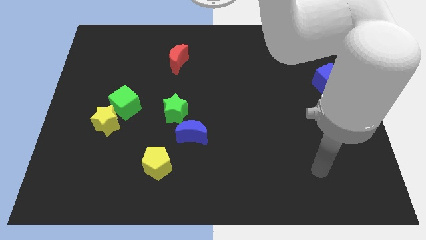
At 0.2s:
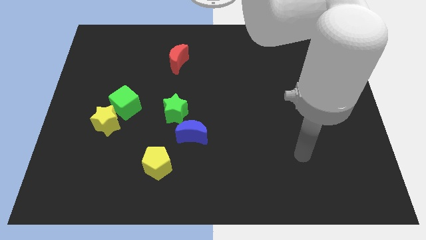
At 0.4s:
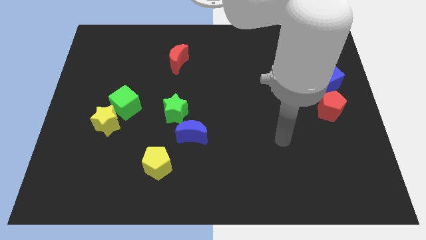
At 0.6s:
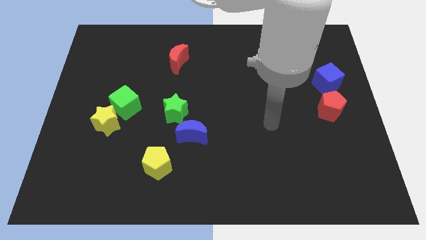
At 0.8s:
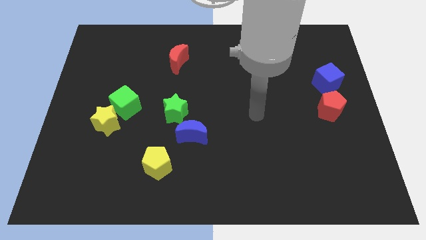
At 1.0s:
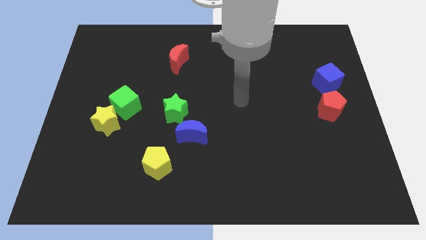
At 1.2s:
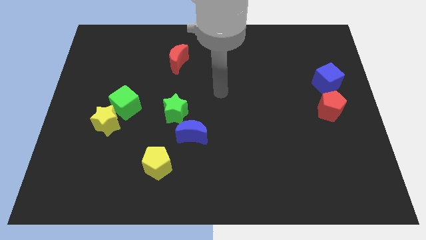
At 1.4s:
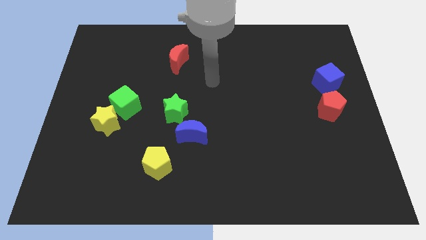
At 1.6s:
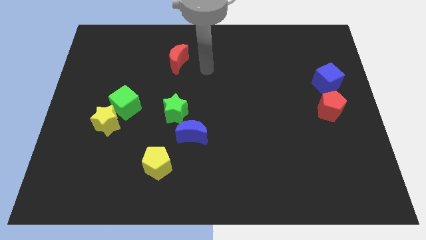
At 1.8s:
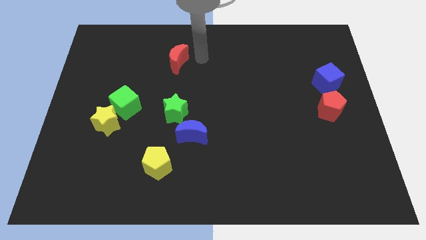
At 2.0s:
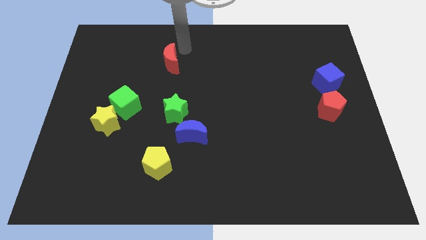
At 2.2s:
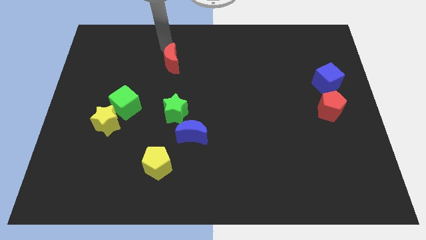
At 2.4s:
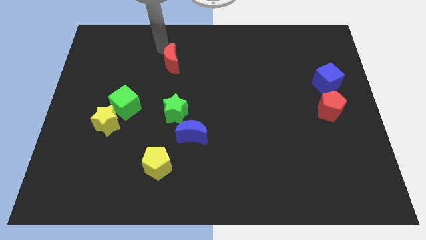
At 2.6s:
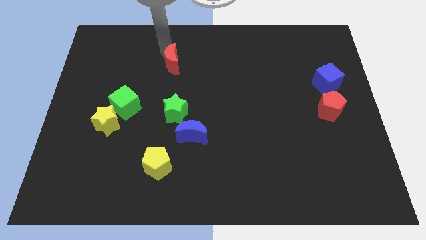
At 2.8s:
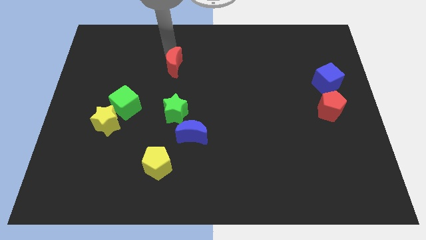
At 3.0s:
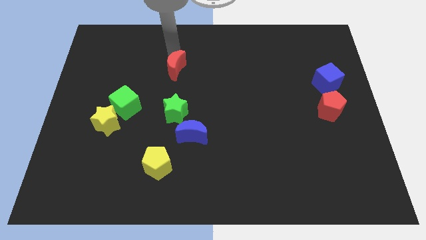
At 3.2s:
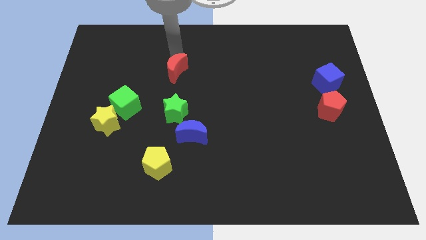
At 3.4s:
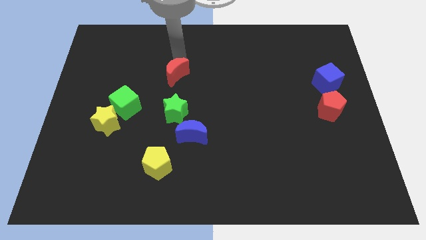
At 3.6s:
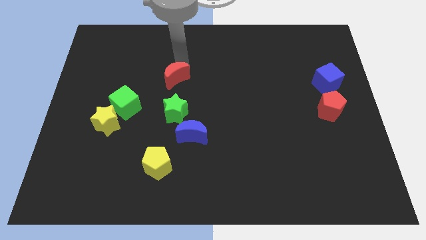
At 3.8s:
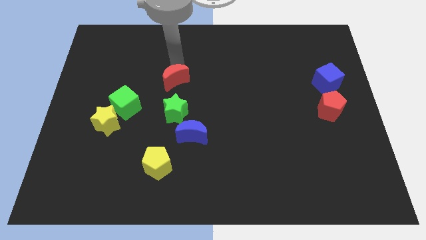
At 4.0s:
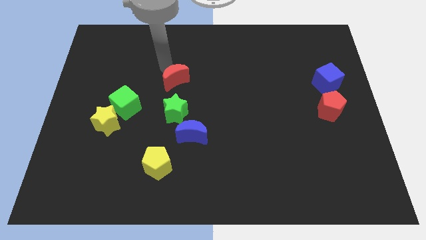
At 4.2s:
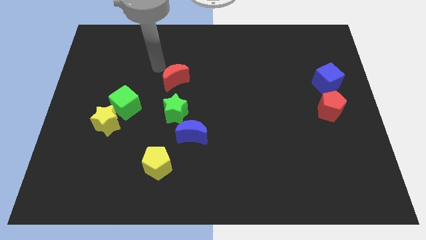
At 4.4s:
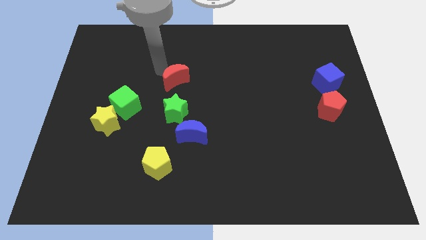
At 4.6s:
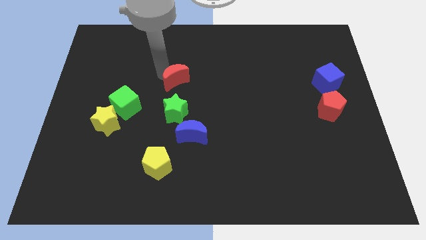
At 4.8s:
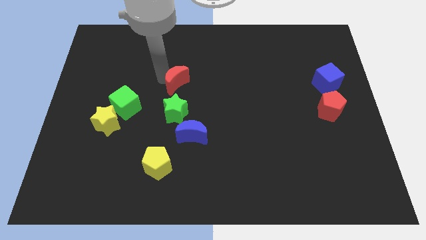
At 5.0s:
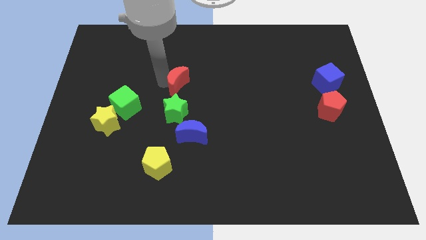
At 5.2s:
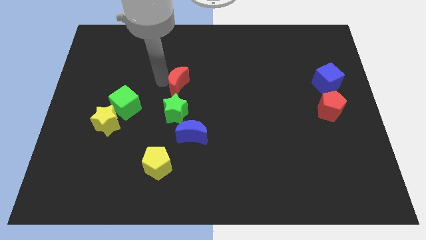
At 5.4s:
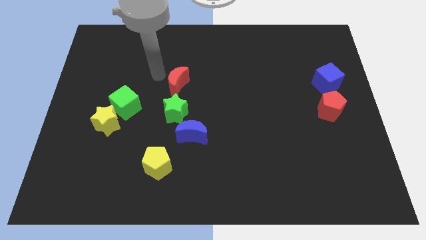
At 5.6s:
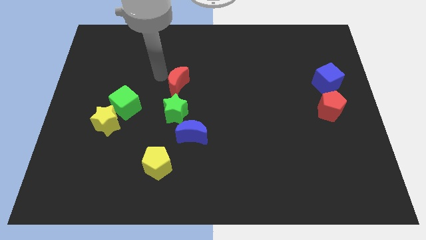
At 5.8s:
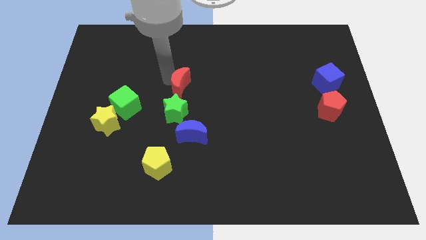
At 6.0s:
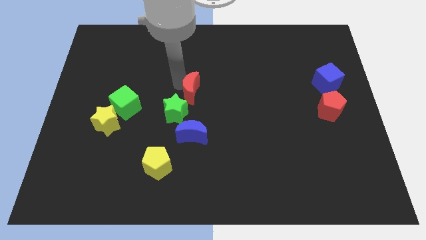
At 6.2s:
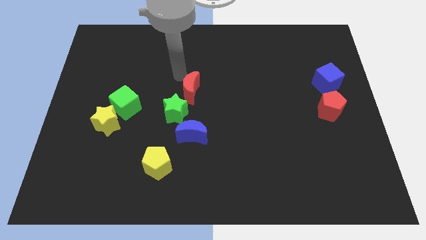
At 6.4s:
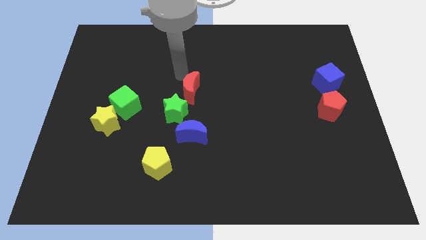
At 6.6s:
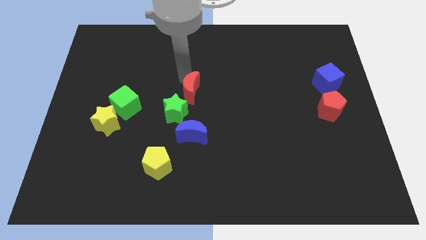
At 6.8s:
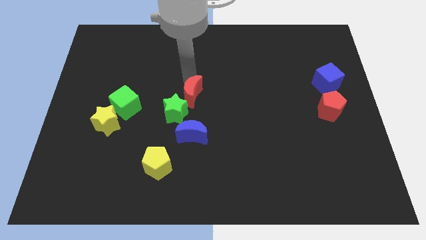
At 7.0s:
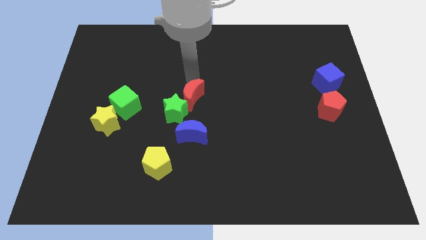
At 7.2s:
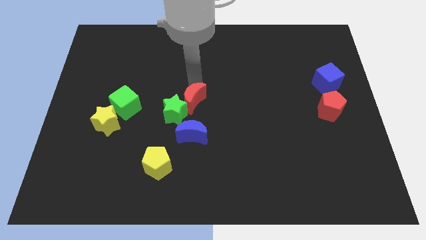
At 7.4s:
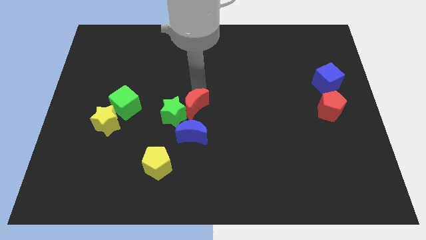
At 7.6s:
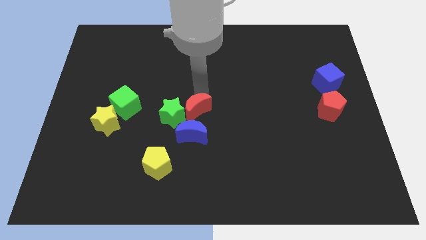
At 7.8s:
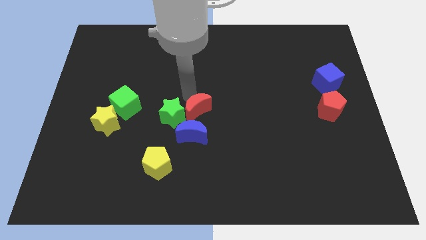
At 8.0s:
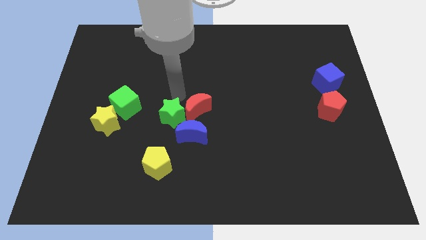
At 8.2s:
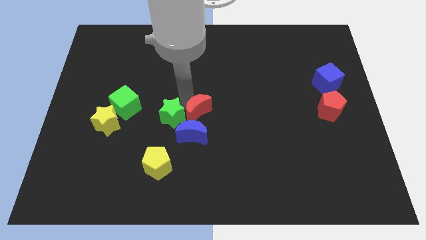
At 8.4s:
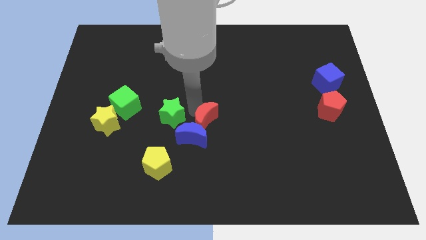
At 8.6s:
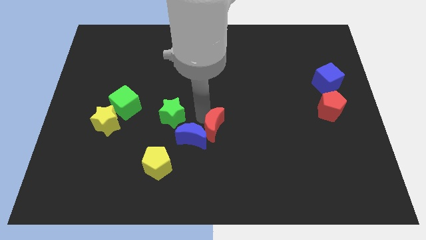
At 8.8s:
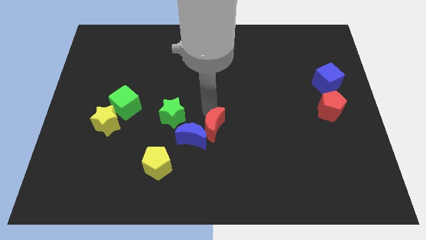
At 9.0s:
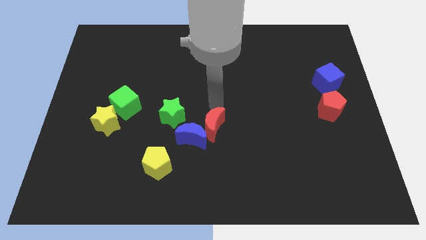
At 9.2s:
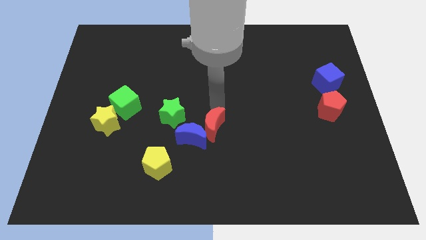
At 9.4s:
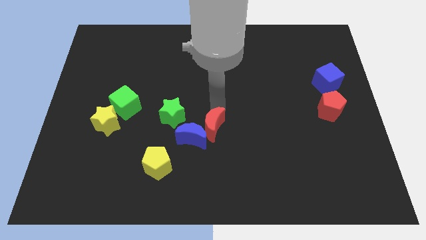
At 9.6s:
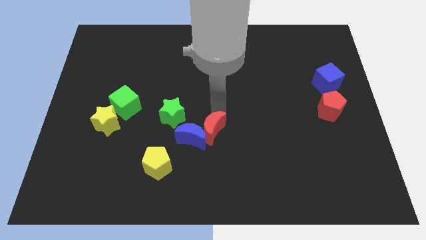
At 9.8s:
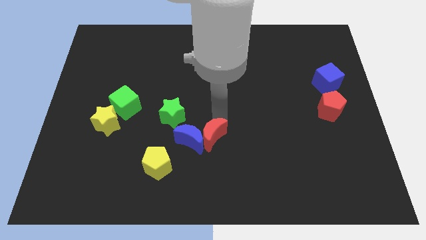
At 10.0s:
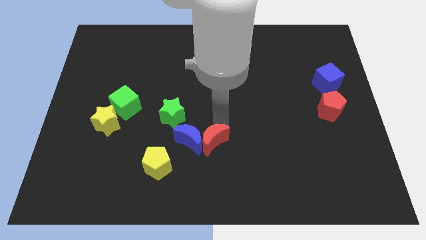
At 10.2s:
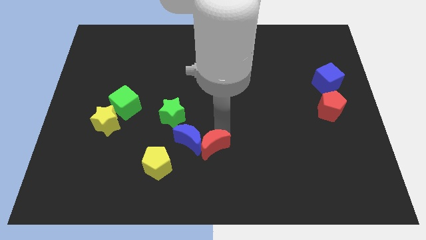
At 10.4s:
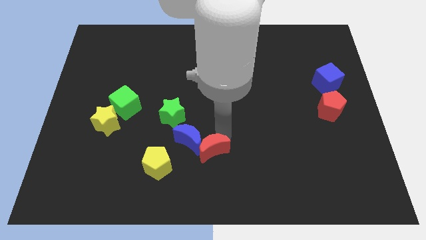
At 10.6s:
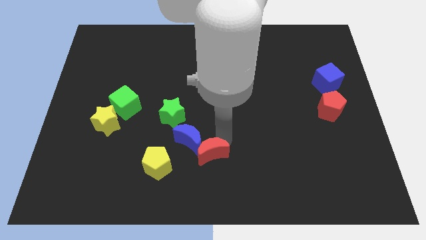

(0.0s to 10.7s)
put the red moon to the bottom

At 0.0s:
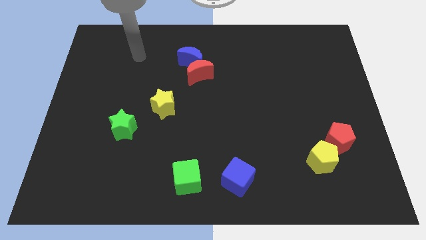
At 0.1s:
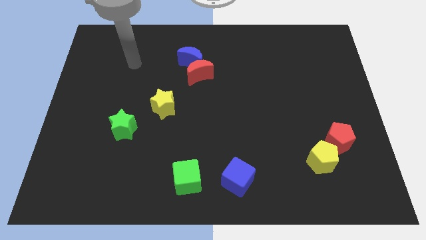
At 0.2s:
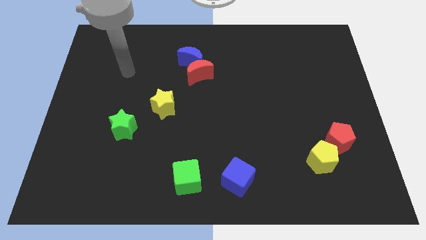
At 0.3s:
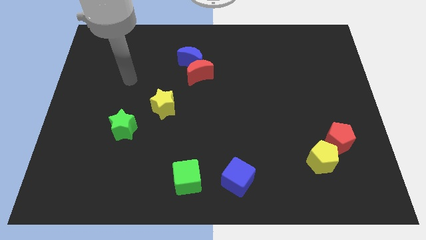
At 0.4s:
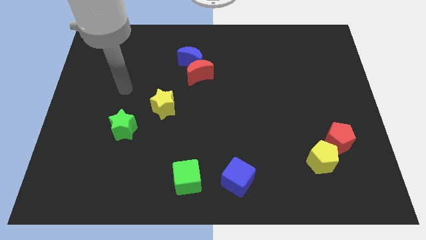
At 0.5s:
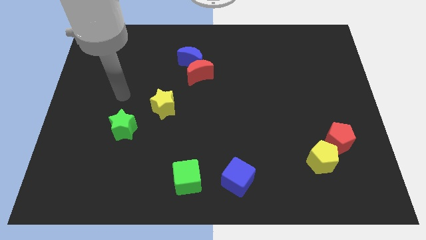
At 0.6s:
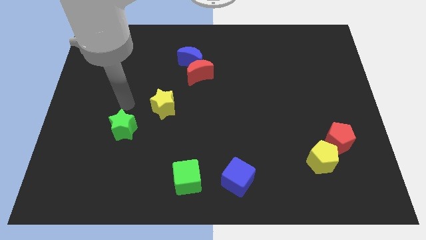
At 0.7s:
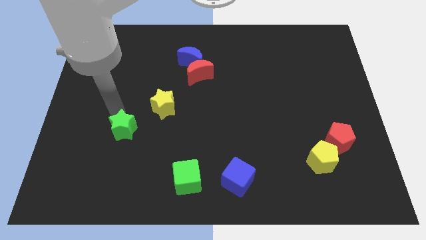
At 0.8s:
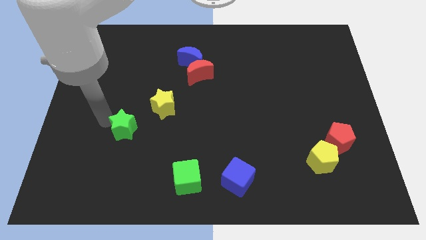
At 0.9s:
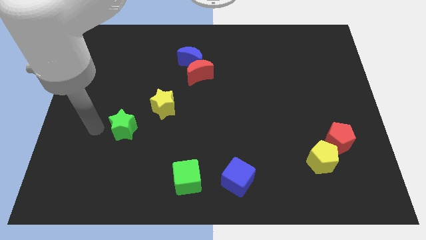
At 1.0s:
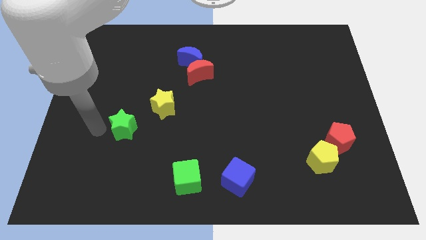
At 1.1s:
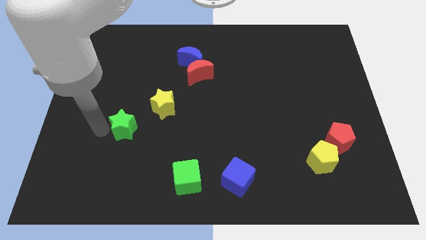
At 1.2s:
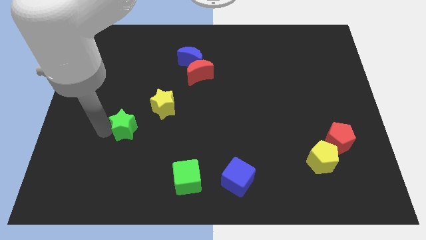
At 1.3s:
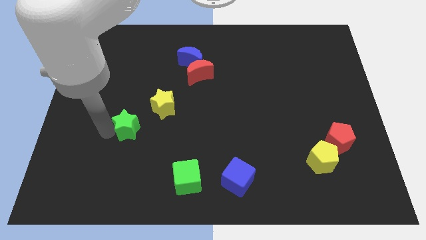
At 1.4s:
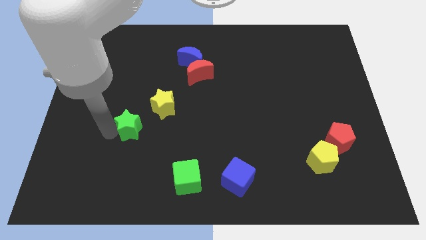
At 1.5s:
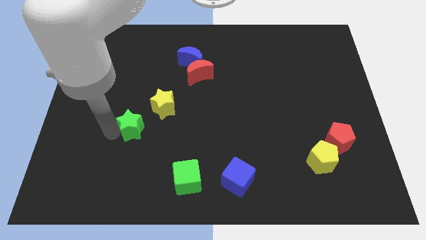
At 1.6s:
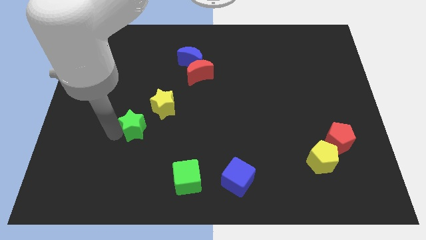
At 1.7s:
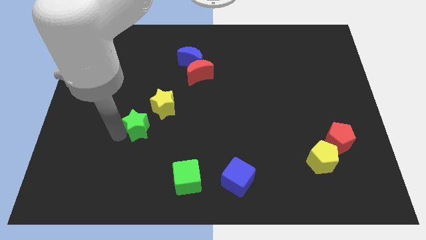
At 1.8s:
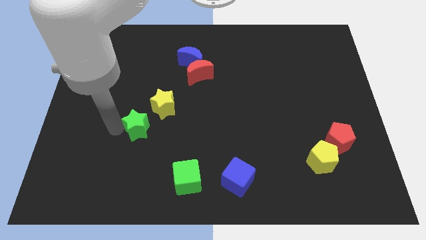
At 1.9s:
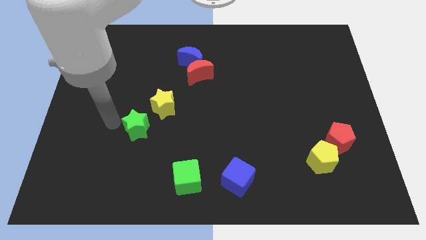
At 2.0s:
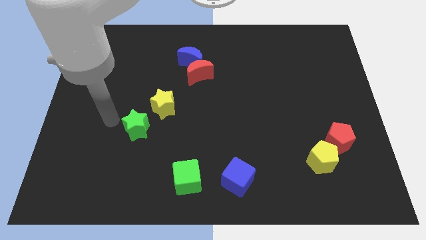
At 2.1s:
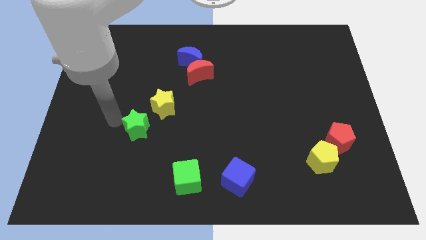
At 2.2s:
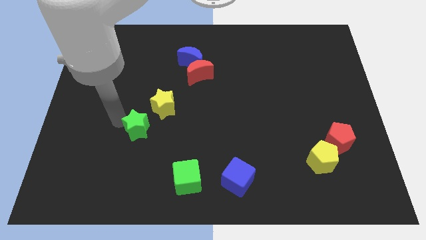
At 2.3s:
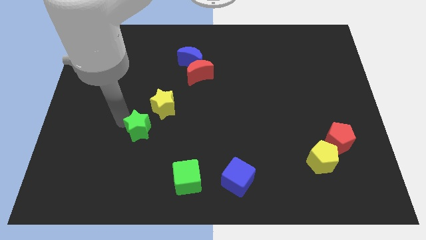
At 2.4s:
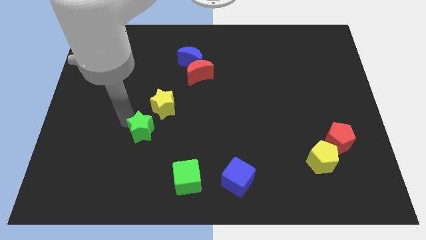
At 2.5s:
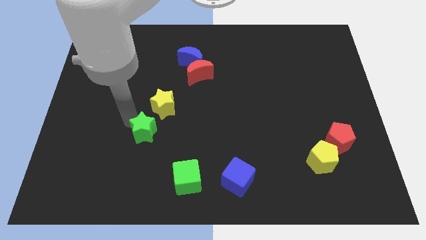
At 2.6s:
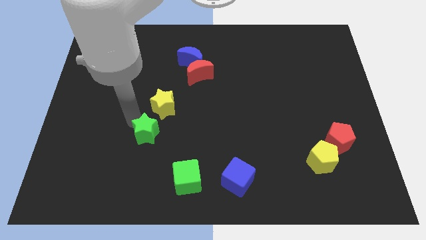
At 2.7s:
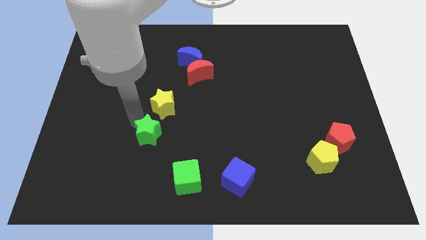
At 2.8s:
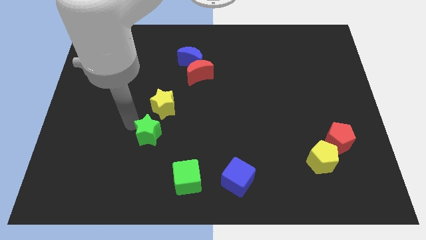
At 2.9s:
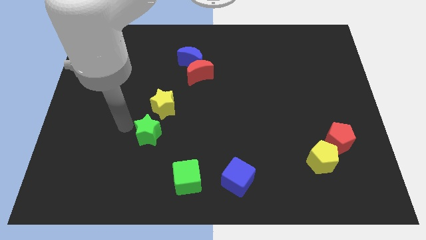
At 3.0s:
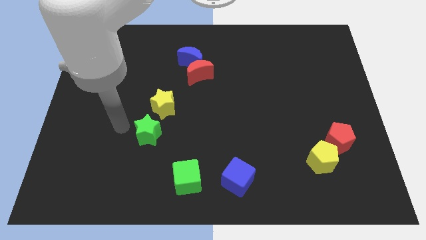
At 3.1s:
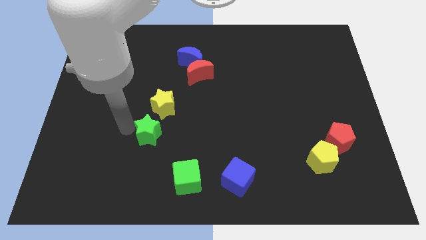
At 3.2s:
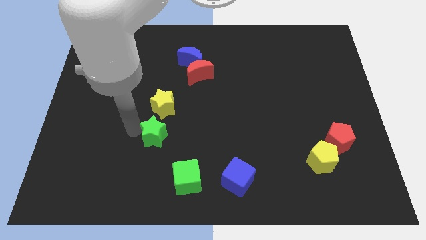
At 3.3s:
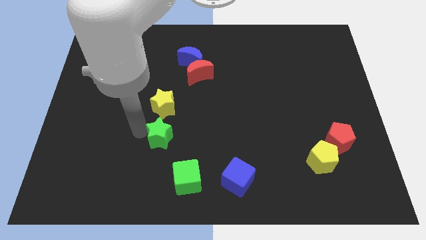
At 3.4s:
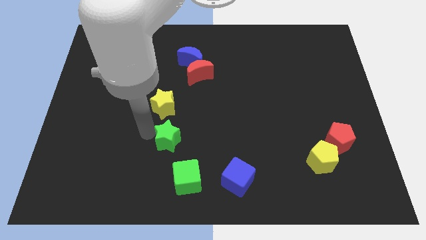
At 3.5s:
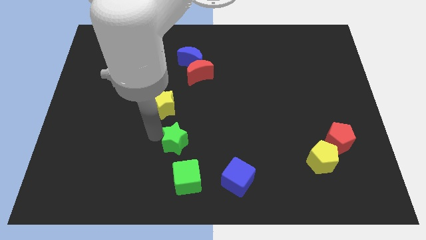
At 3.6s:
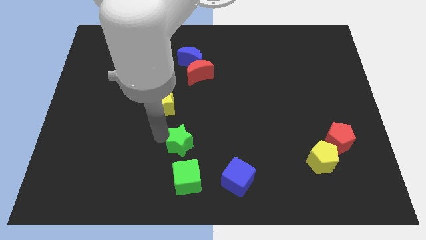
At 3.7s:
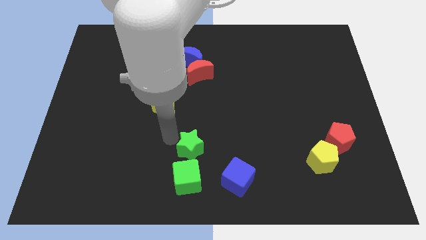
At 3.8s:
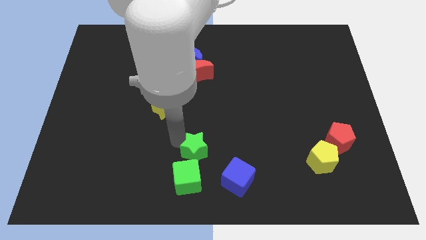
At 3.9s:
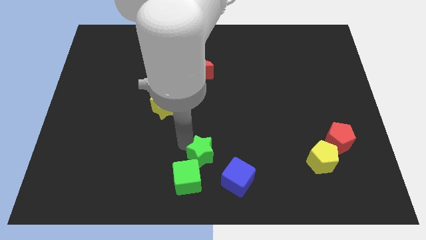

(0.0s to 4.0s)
put the green star to the bottom side
